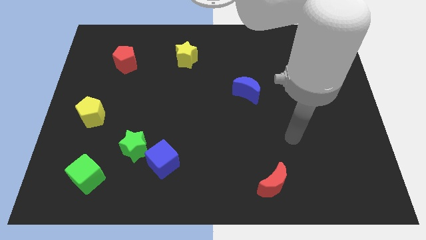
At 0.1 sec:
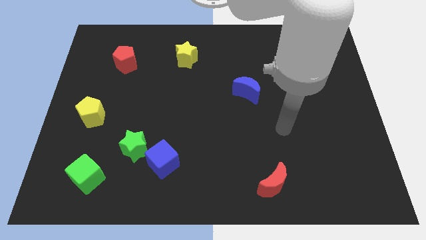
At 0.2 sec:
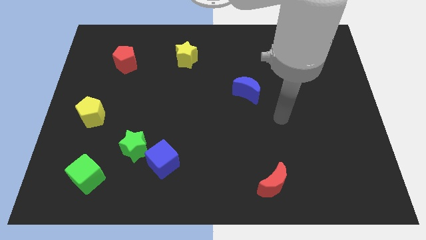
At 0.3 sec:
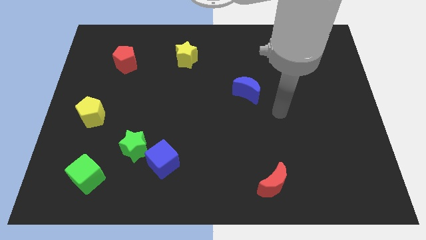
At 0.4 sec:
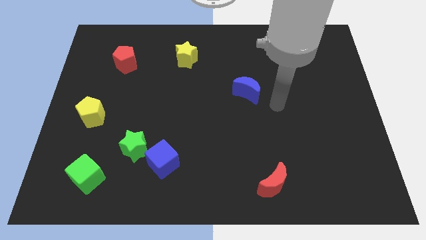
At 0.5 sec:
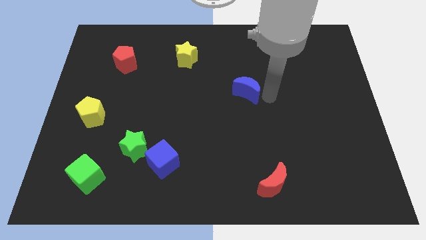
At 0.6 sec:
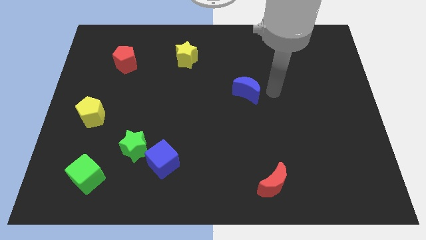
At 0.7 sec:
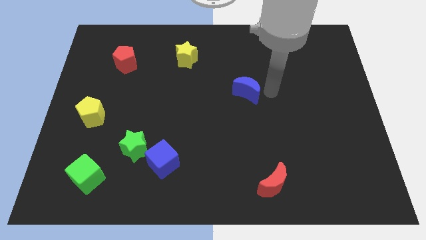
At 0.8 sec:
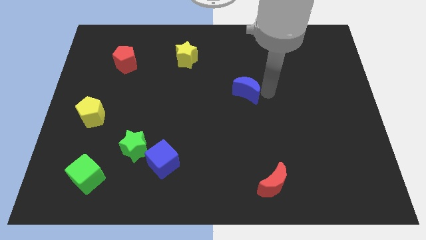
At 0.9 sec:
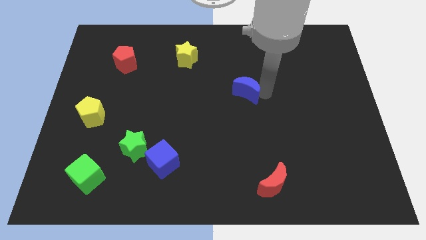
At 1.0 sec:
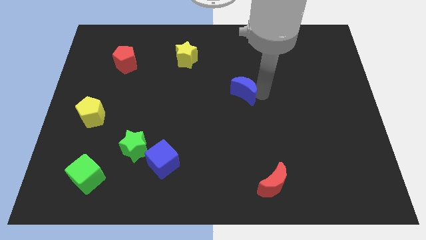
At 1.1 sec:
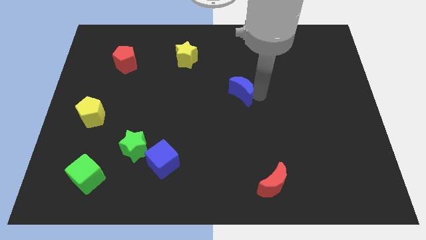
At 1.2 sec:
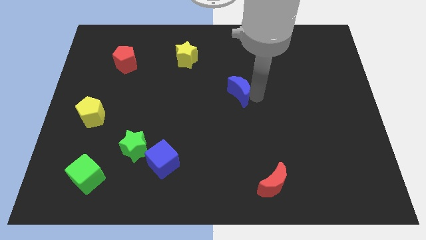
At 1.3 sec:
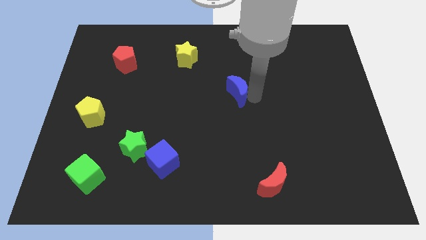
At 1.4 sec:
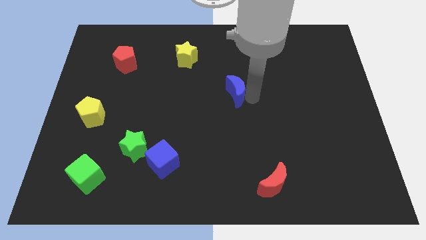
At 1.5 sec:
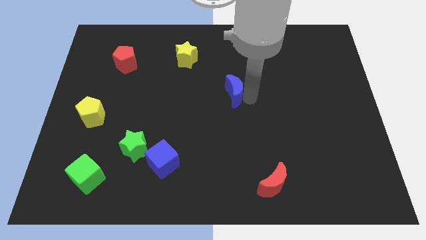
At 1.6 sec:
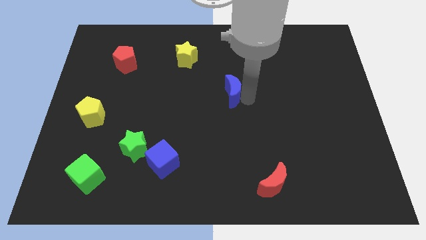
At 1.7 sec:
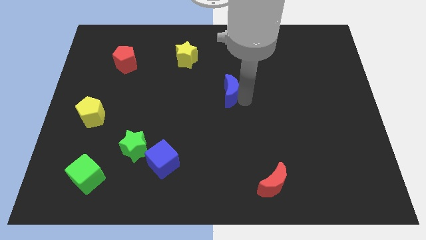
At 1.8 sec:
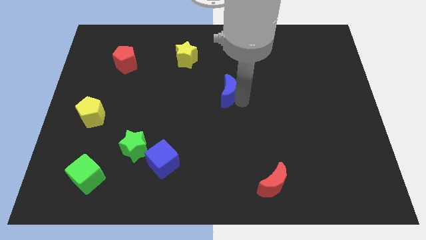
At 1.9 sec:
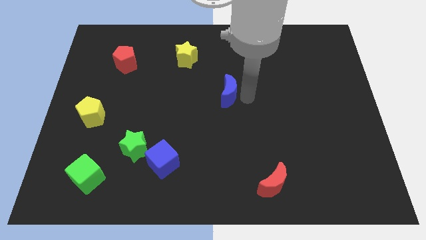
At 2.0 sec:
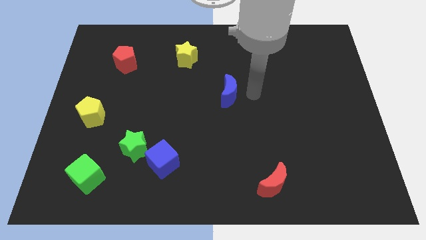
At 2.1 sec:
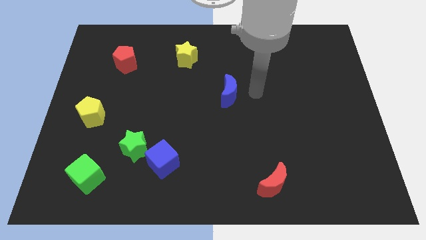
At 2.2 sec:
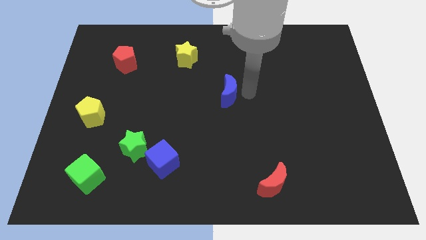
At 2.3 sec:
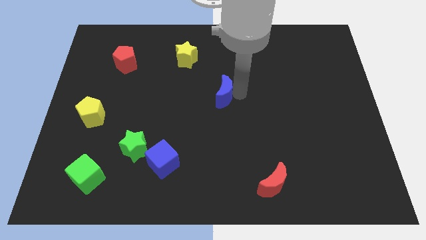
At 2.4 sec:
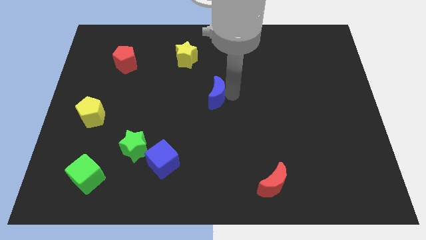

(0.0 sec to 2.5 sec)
slide the blue moon a bit to the left

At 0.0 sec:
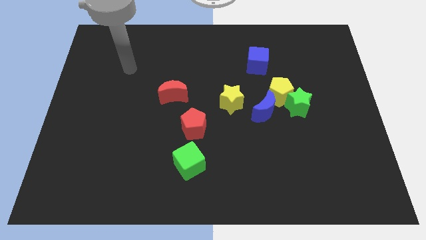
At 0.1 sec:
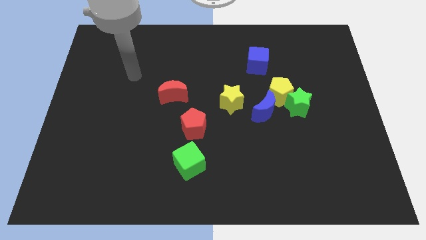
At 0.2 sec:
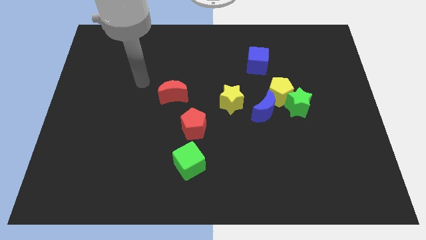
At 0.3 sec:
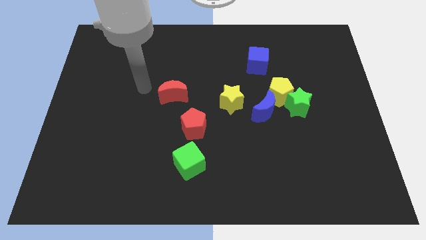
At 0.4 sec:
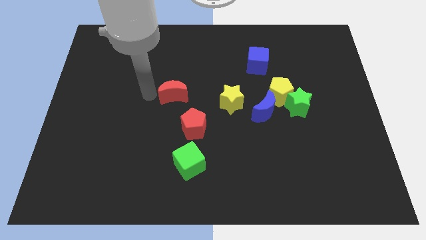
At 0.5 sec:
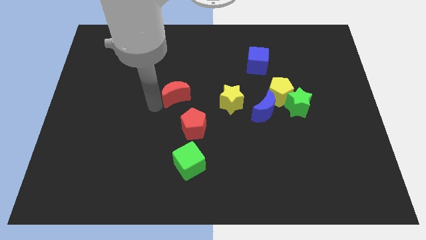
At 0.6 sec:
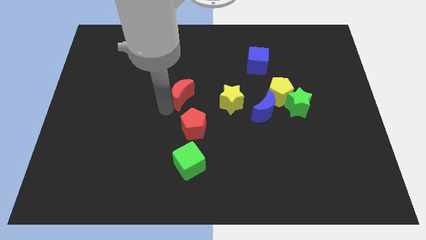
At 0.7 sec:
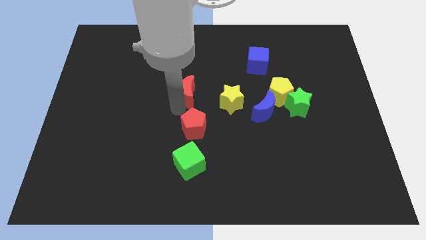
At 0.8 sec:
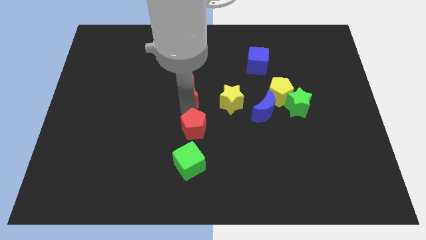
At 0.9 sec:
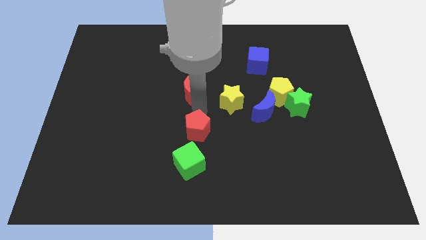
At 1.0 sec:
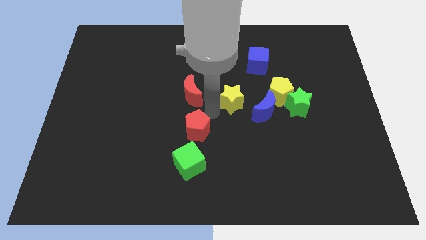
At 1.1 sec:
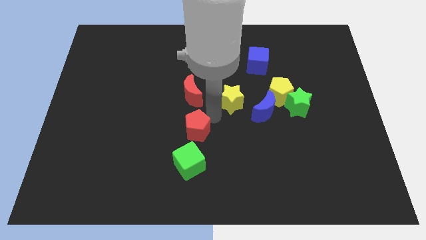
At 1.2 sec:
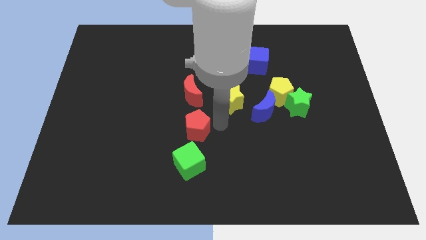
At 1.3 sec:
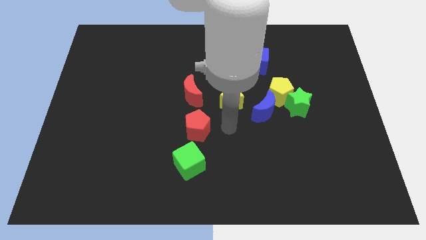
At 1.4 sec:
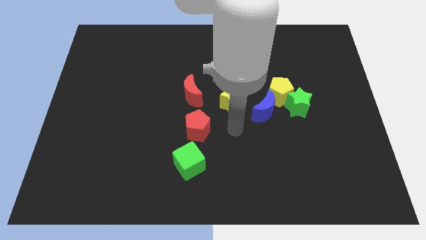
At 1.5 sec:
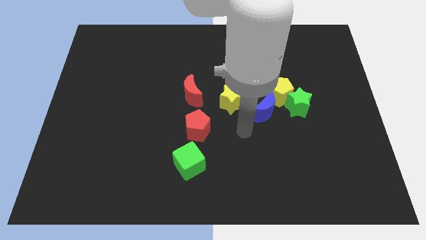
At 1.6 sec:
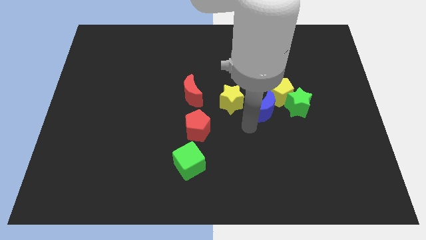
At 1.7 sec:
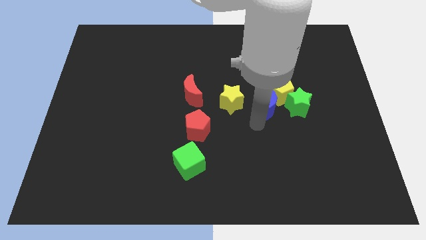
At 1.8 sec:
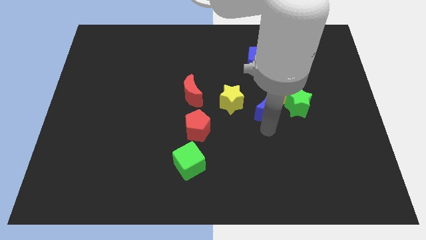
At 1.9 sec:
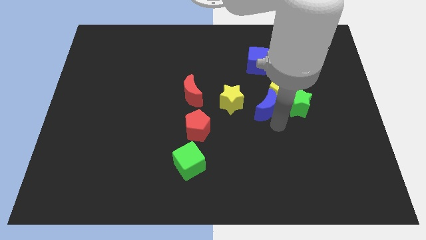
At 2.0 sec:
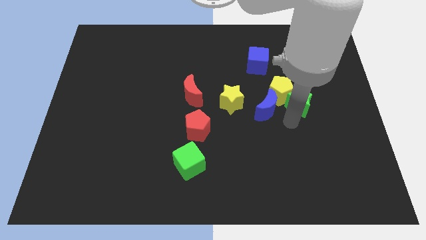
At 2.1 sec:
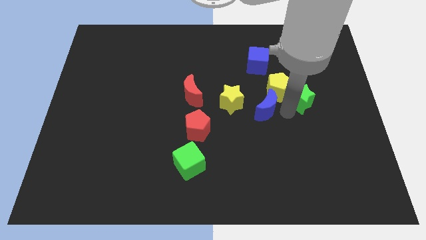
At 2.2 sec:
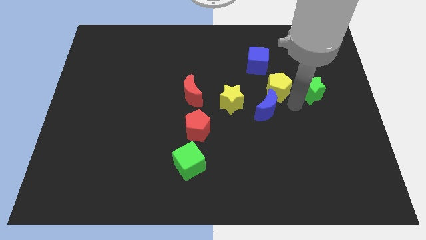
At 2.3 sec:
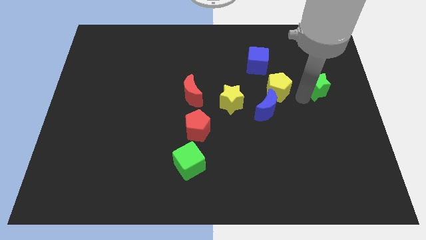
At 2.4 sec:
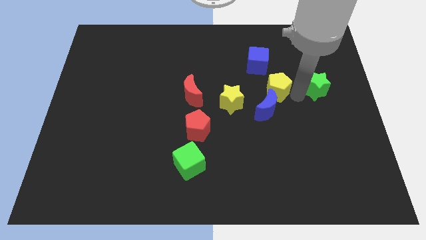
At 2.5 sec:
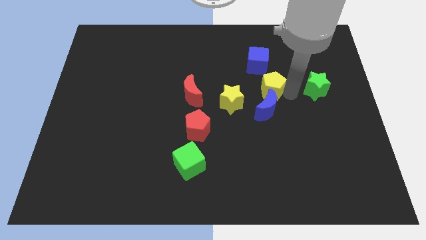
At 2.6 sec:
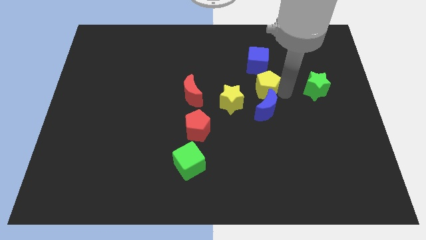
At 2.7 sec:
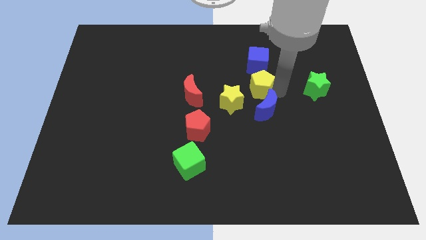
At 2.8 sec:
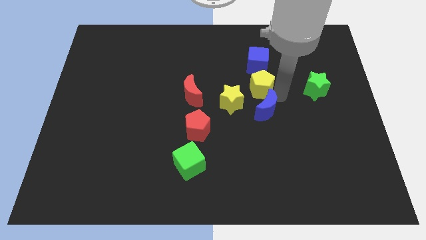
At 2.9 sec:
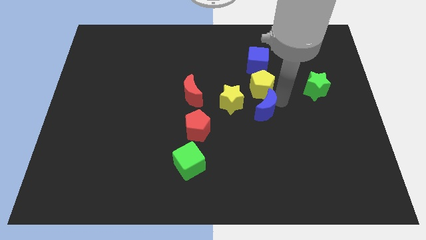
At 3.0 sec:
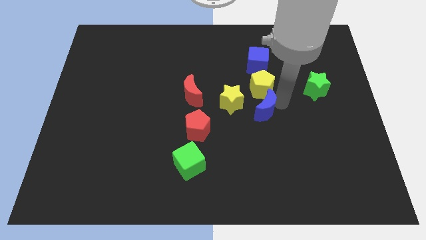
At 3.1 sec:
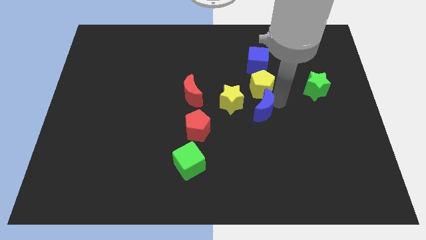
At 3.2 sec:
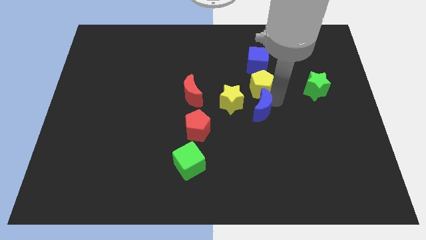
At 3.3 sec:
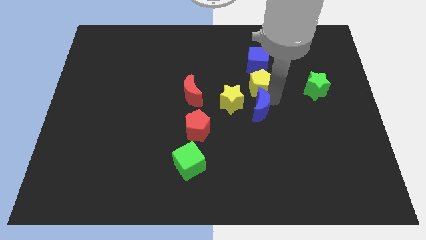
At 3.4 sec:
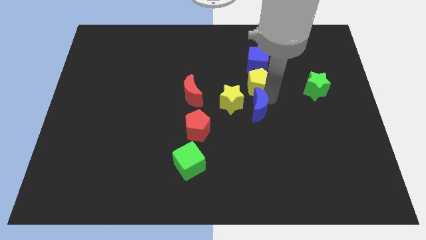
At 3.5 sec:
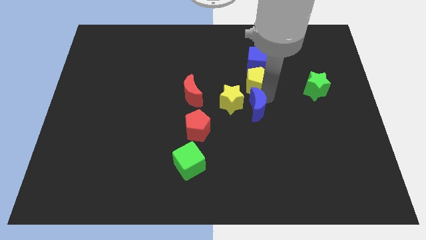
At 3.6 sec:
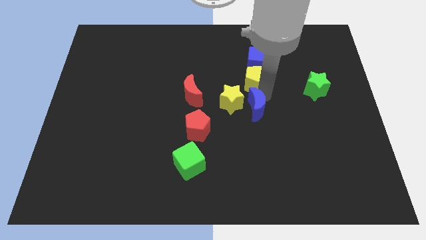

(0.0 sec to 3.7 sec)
slightly move the yellow pentagon diagonally upwards and to the left

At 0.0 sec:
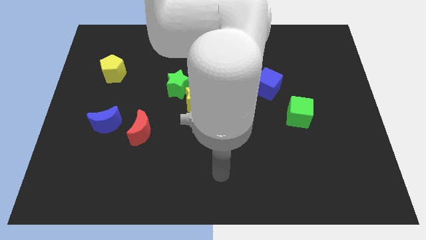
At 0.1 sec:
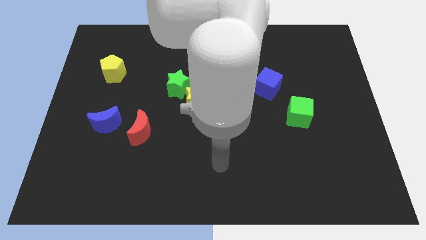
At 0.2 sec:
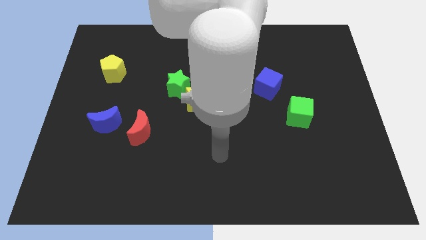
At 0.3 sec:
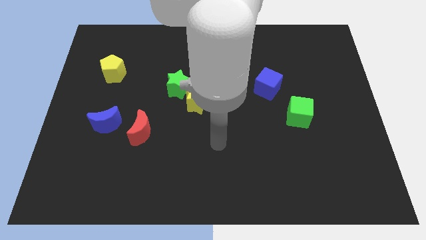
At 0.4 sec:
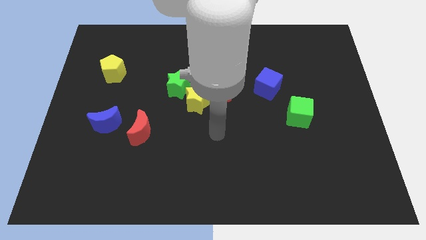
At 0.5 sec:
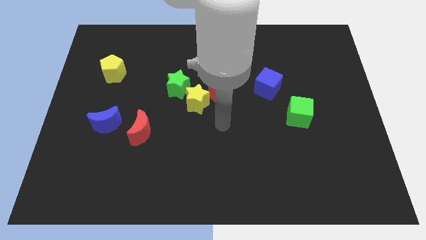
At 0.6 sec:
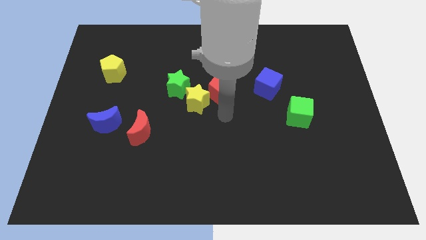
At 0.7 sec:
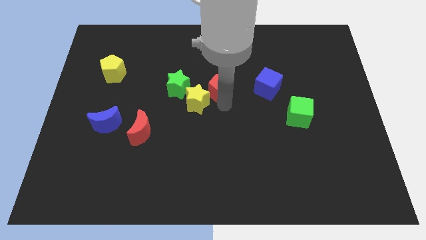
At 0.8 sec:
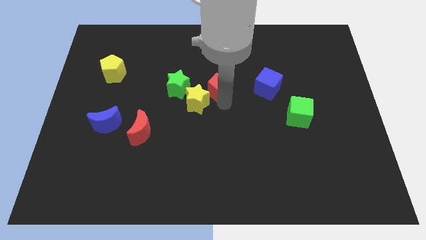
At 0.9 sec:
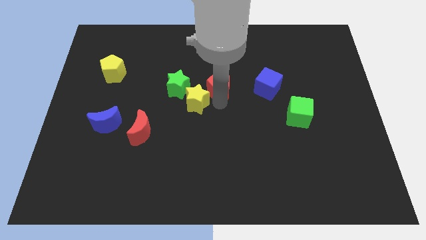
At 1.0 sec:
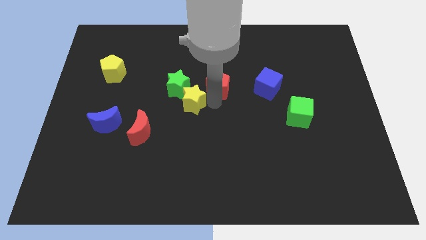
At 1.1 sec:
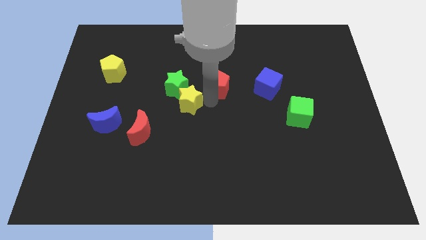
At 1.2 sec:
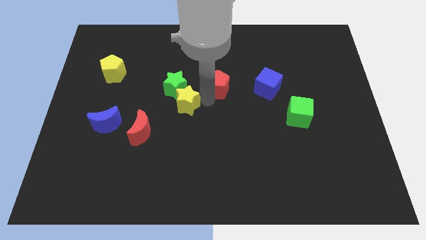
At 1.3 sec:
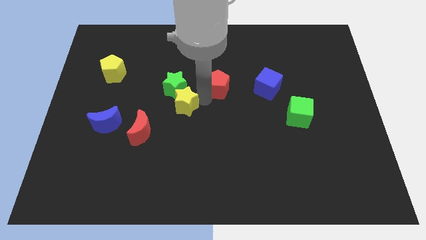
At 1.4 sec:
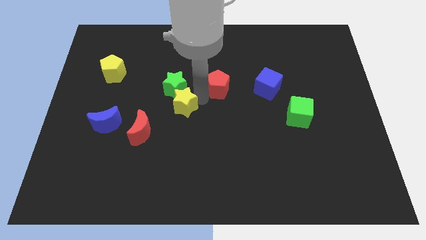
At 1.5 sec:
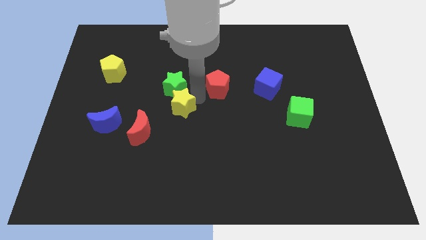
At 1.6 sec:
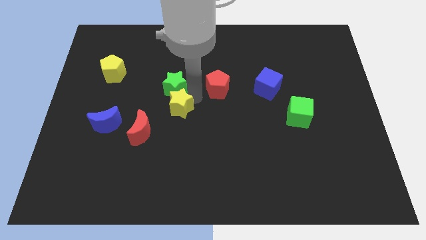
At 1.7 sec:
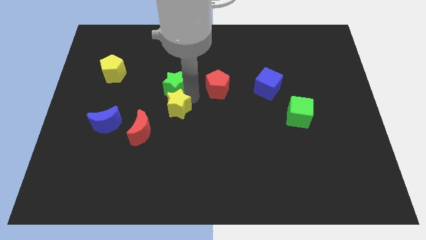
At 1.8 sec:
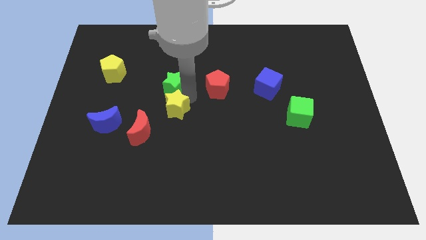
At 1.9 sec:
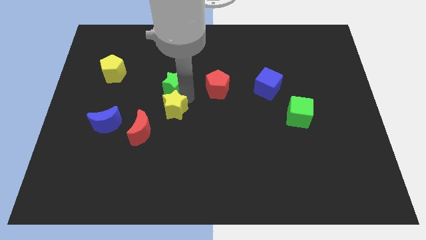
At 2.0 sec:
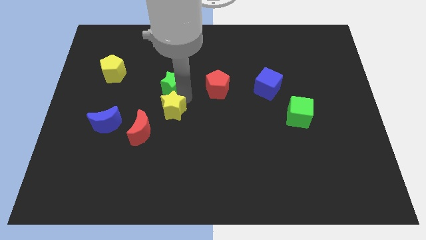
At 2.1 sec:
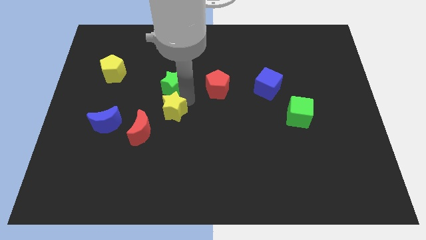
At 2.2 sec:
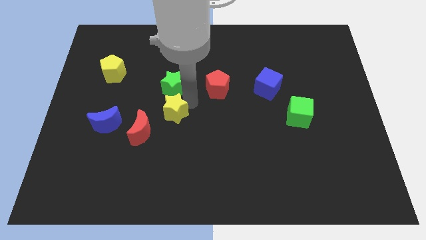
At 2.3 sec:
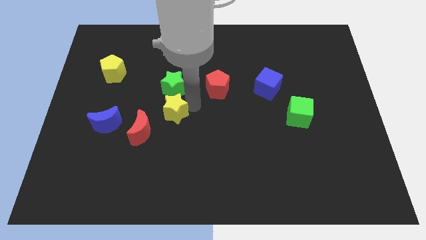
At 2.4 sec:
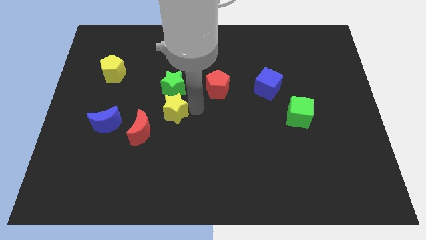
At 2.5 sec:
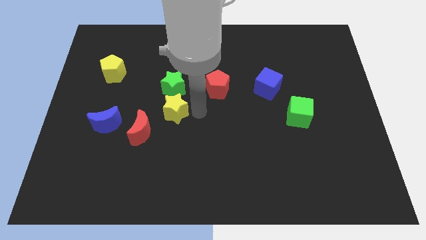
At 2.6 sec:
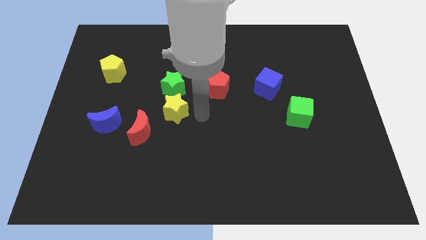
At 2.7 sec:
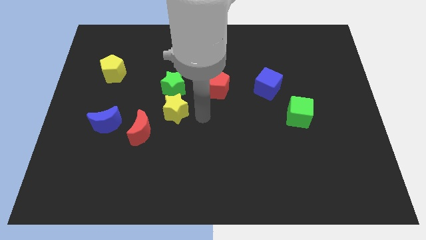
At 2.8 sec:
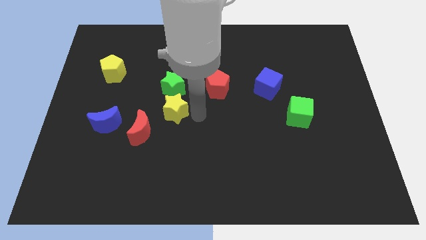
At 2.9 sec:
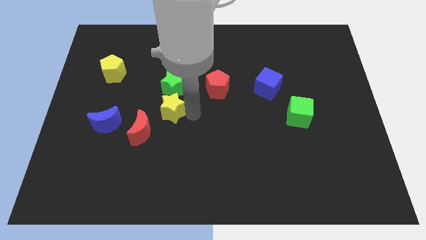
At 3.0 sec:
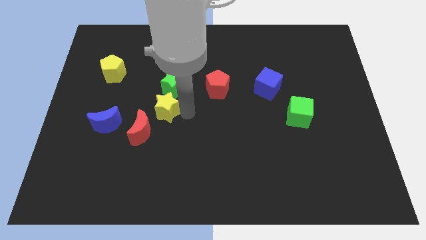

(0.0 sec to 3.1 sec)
slide the yellow star left slightly
